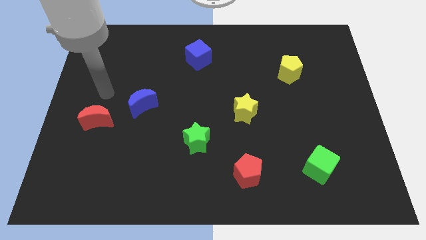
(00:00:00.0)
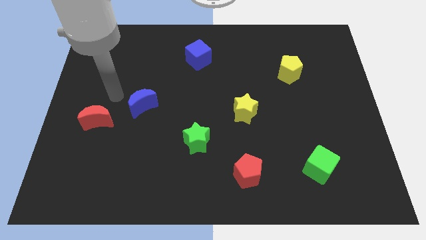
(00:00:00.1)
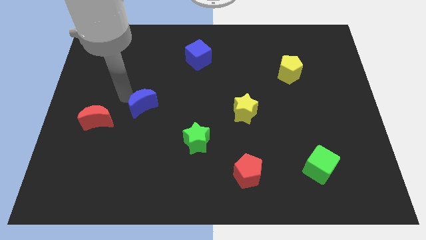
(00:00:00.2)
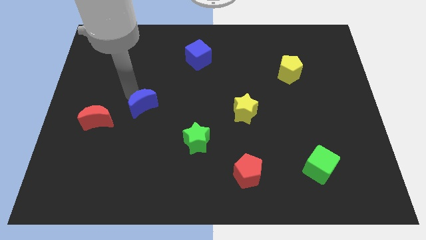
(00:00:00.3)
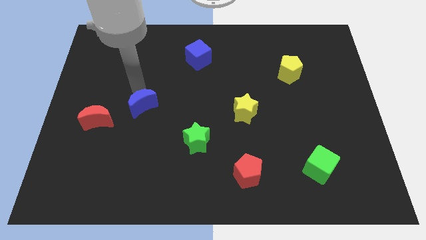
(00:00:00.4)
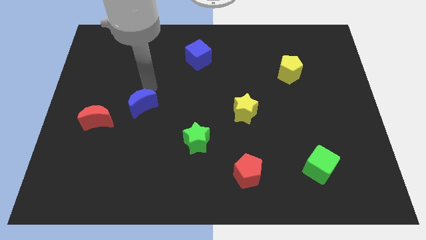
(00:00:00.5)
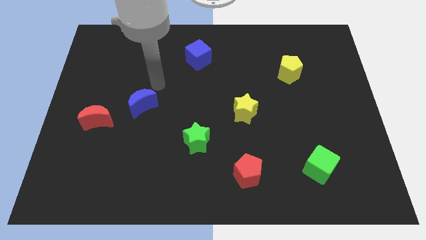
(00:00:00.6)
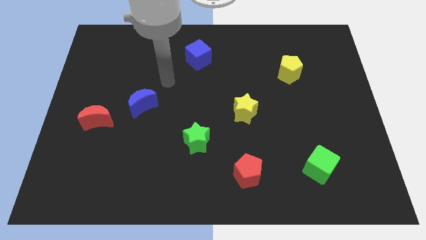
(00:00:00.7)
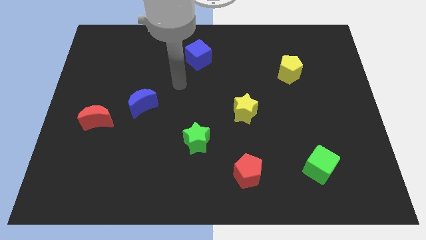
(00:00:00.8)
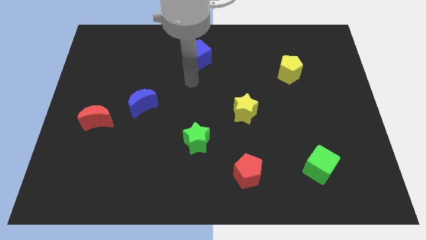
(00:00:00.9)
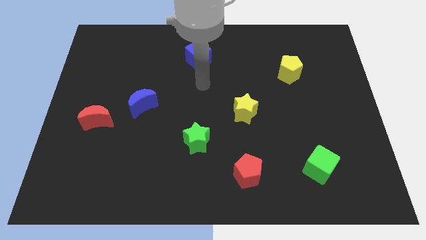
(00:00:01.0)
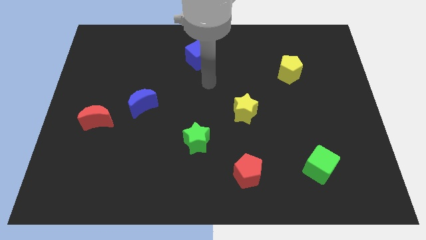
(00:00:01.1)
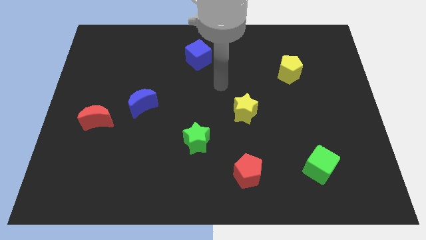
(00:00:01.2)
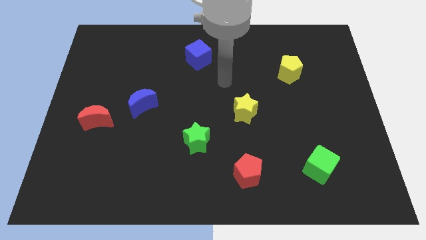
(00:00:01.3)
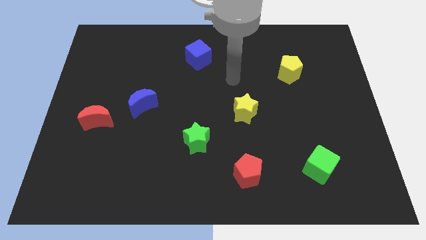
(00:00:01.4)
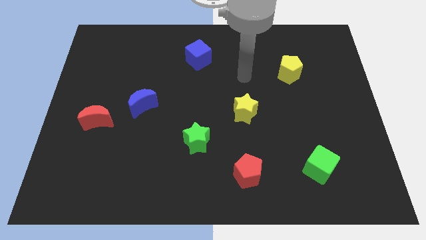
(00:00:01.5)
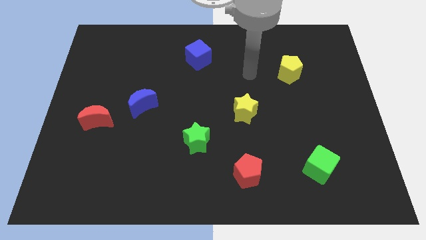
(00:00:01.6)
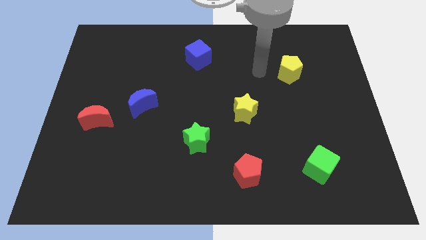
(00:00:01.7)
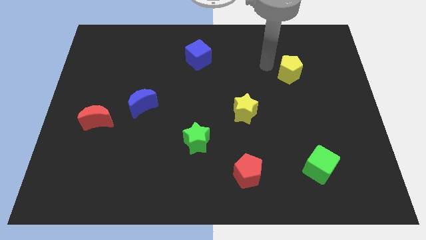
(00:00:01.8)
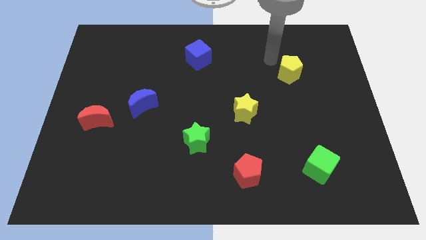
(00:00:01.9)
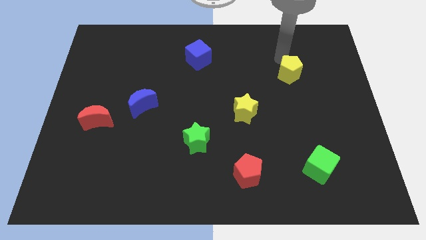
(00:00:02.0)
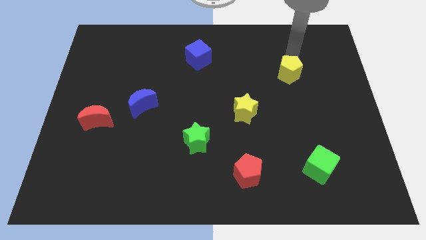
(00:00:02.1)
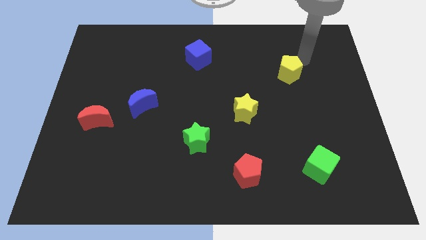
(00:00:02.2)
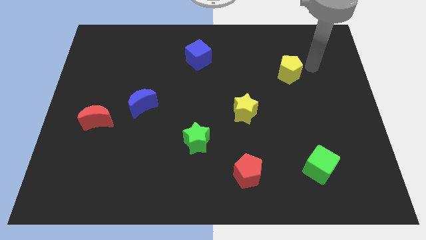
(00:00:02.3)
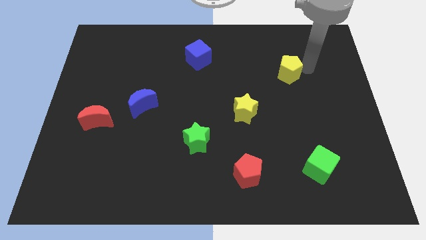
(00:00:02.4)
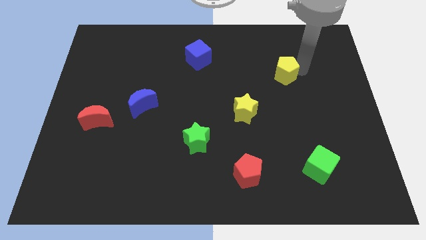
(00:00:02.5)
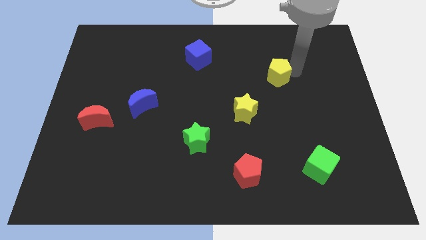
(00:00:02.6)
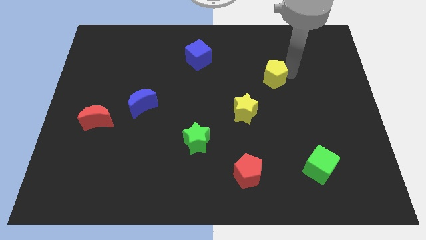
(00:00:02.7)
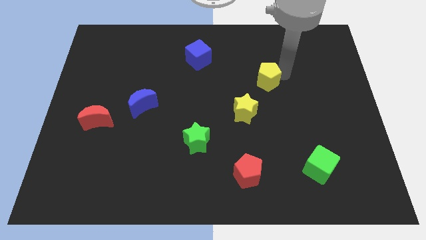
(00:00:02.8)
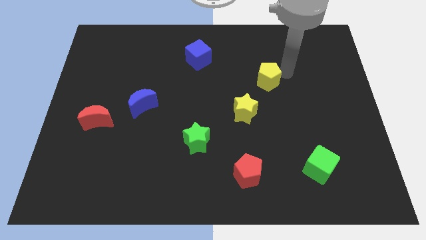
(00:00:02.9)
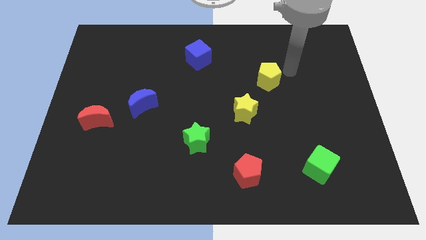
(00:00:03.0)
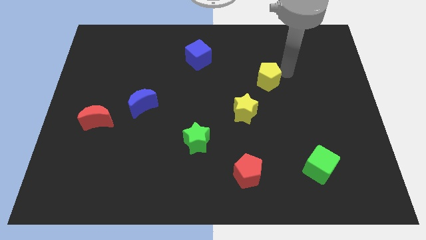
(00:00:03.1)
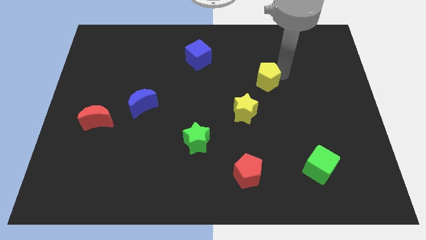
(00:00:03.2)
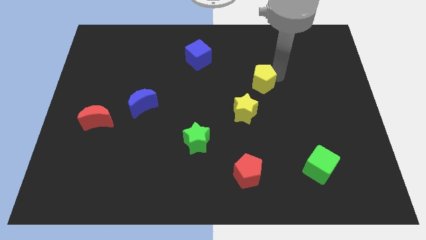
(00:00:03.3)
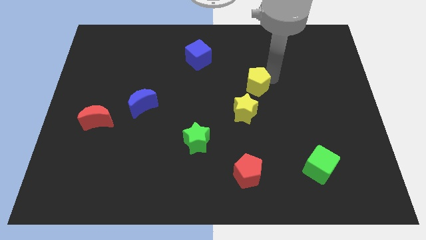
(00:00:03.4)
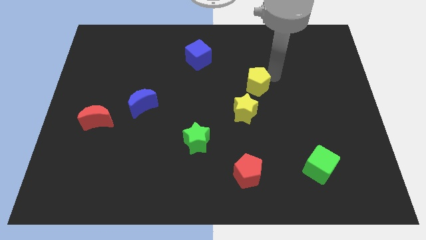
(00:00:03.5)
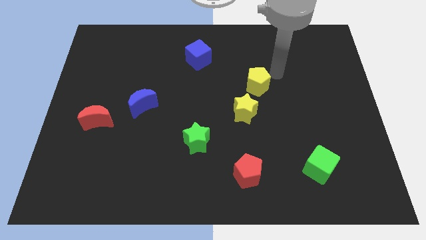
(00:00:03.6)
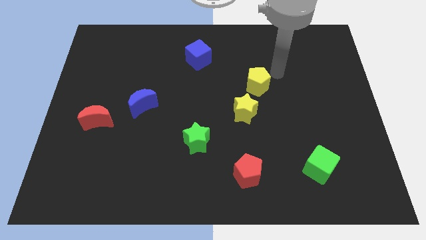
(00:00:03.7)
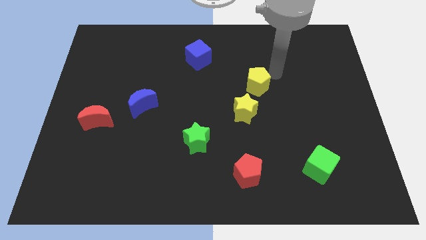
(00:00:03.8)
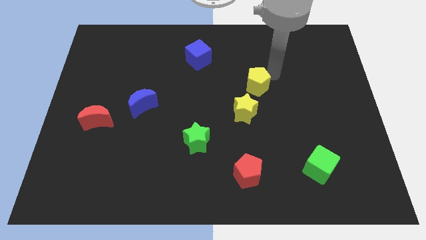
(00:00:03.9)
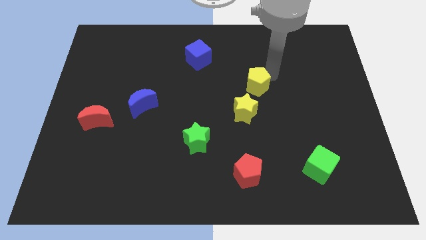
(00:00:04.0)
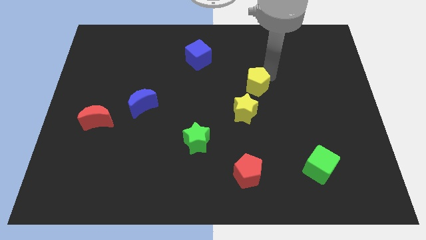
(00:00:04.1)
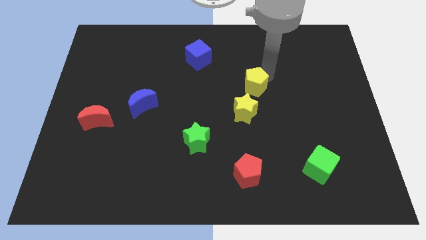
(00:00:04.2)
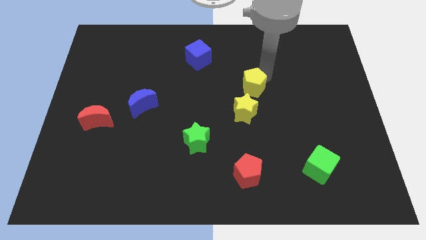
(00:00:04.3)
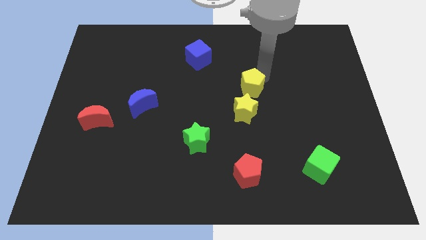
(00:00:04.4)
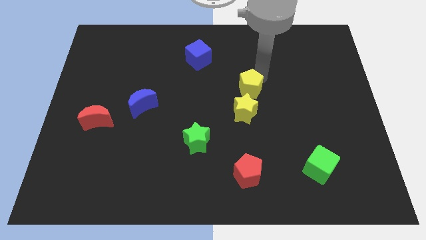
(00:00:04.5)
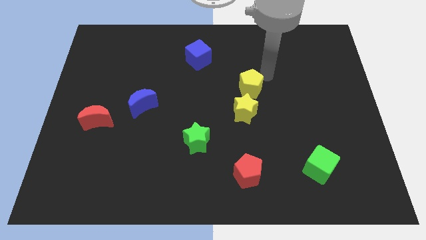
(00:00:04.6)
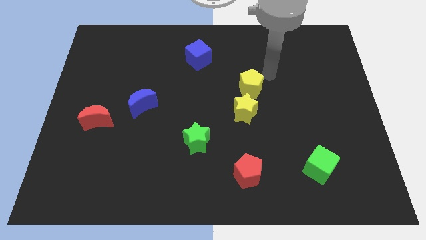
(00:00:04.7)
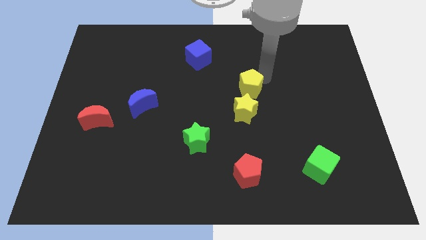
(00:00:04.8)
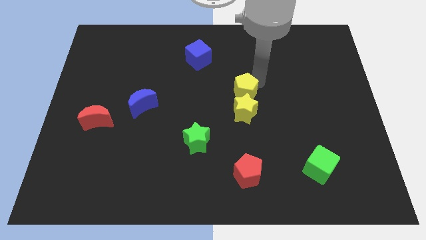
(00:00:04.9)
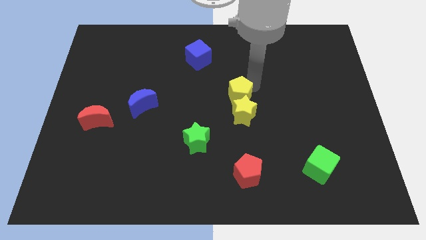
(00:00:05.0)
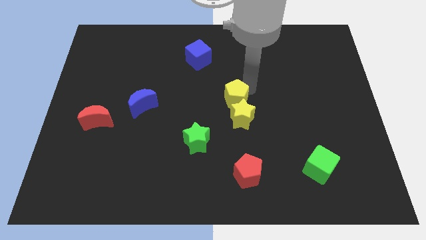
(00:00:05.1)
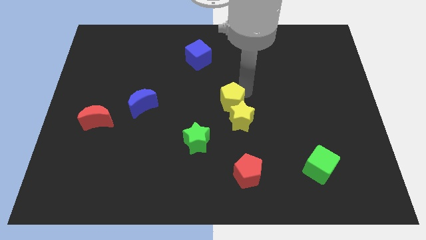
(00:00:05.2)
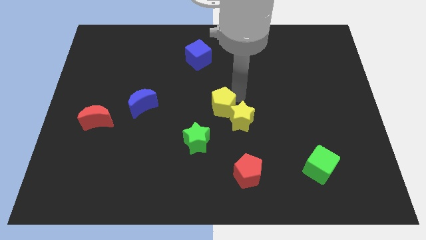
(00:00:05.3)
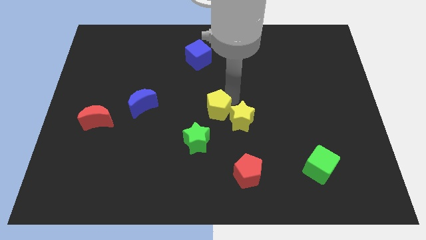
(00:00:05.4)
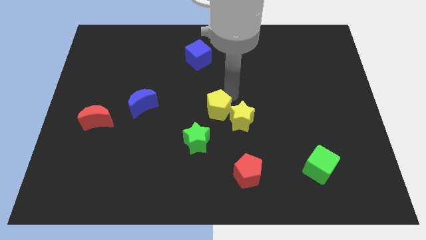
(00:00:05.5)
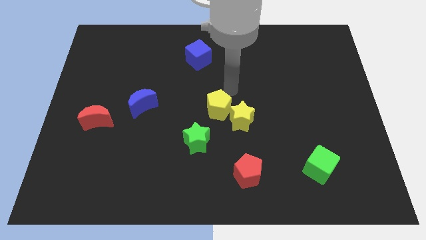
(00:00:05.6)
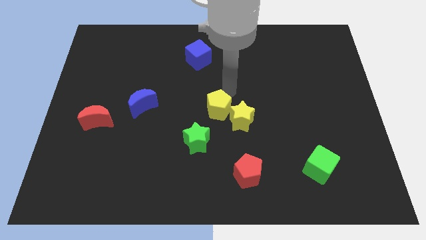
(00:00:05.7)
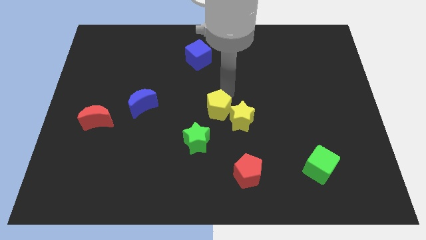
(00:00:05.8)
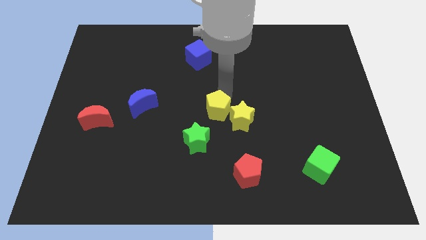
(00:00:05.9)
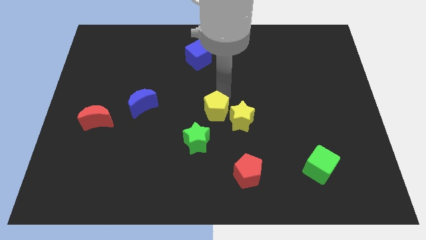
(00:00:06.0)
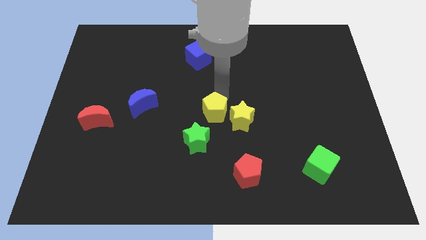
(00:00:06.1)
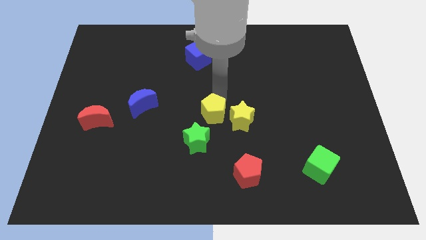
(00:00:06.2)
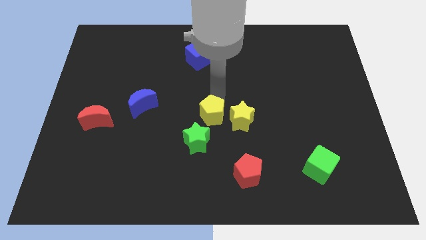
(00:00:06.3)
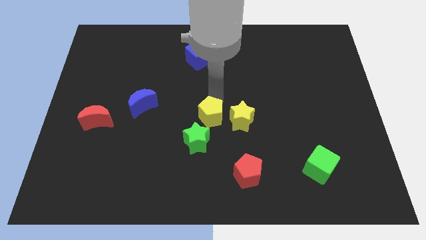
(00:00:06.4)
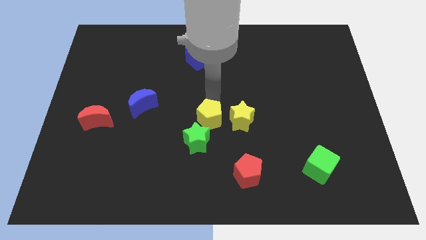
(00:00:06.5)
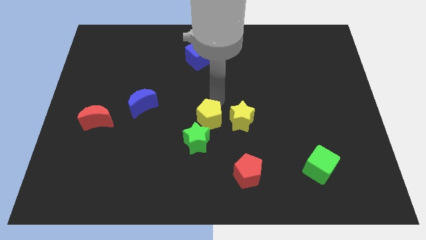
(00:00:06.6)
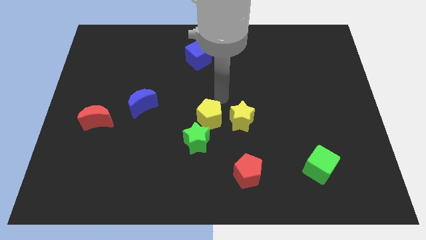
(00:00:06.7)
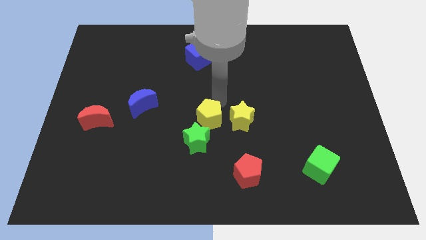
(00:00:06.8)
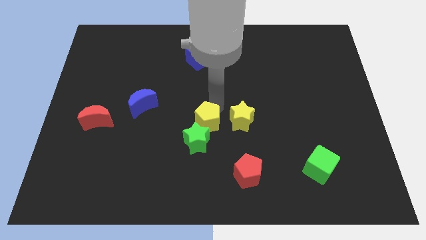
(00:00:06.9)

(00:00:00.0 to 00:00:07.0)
slide the yellow pentagon next to the green star

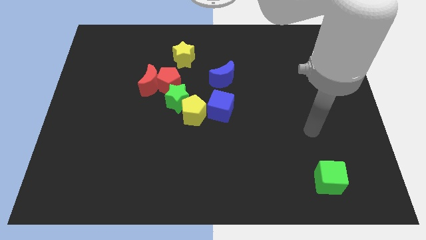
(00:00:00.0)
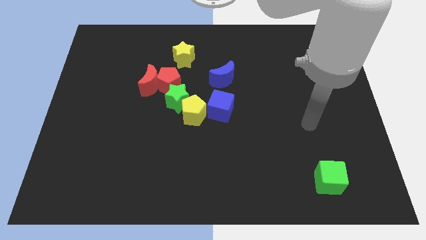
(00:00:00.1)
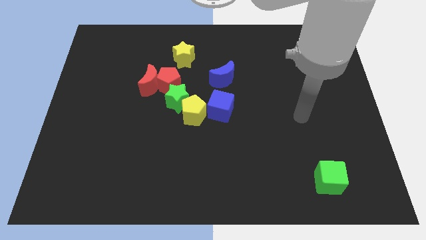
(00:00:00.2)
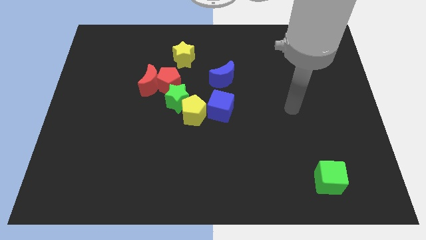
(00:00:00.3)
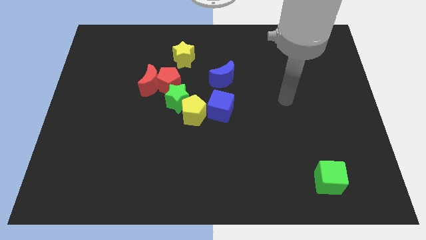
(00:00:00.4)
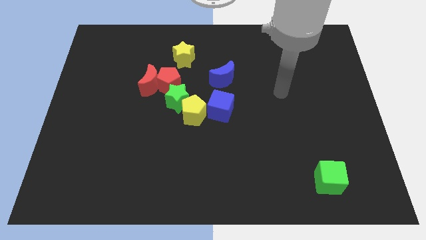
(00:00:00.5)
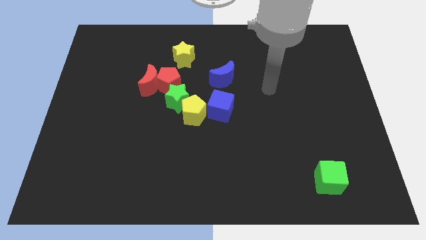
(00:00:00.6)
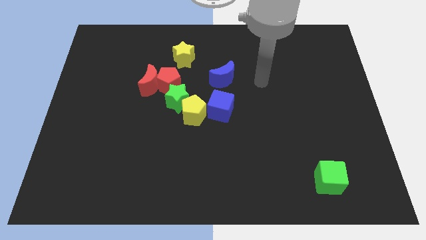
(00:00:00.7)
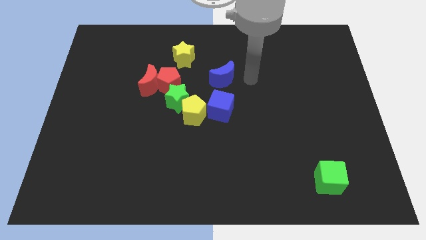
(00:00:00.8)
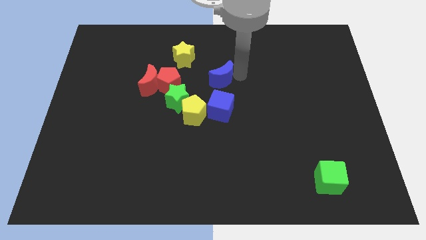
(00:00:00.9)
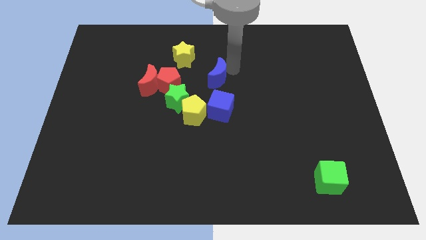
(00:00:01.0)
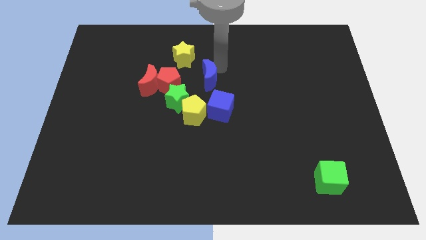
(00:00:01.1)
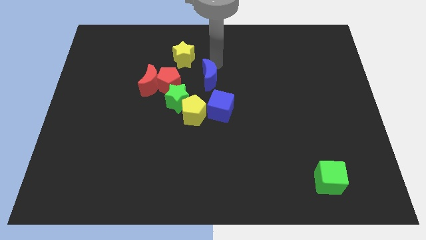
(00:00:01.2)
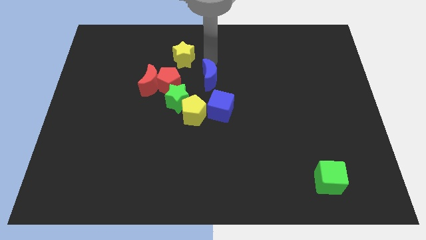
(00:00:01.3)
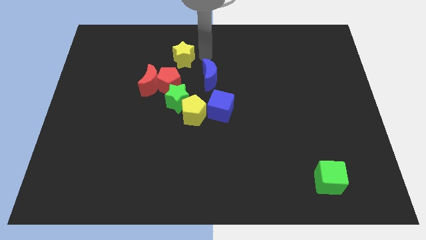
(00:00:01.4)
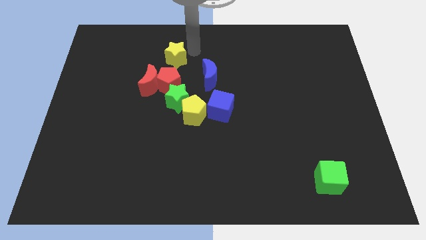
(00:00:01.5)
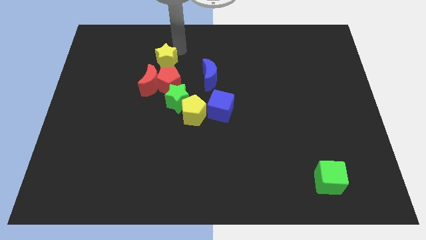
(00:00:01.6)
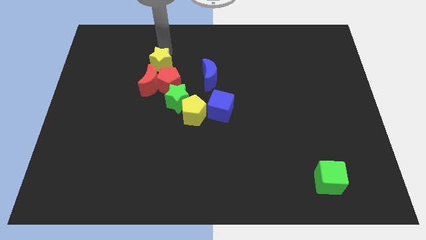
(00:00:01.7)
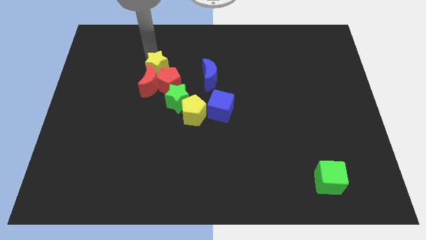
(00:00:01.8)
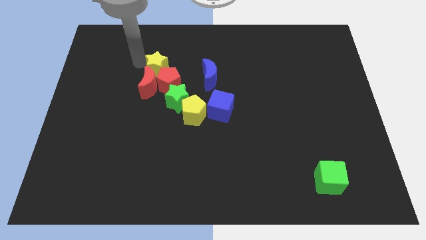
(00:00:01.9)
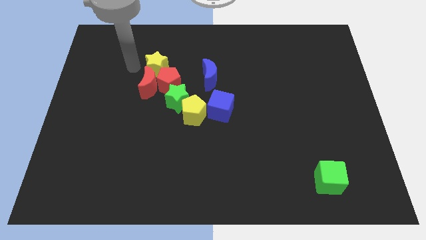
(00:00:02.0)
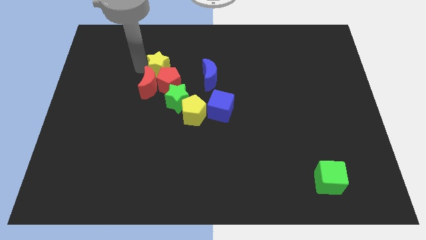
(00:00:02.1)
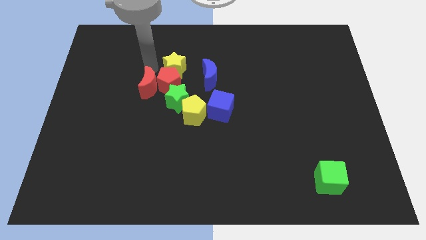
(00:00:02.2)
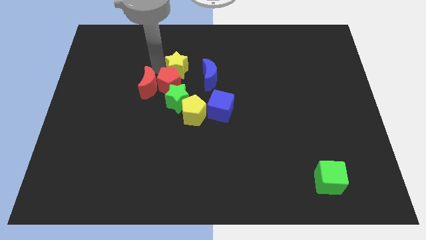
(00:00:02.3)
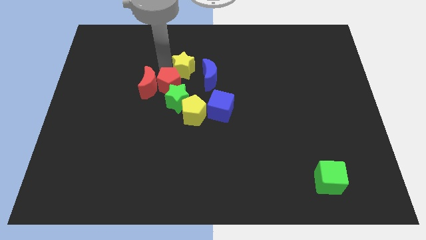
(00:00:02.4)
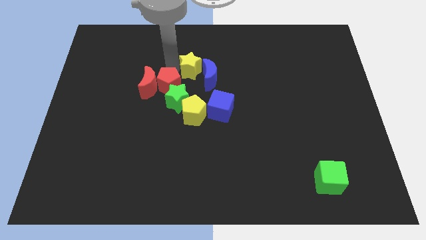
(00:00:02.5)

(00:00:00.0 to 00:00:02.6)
push the yellow star to the blue moon
